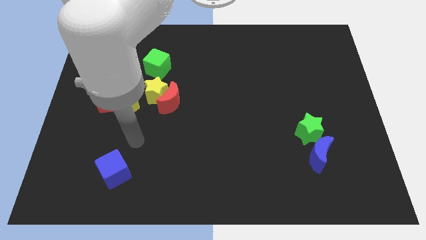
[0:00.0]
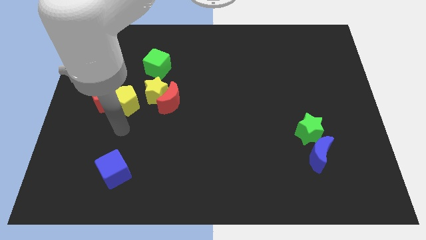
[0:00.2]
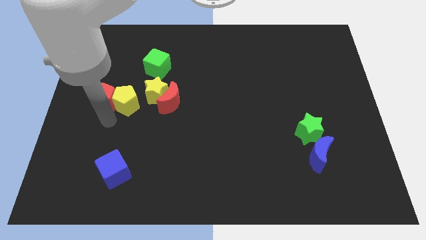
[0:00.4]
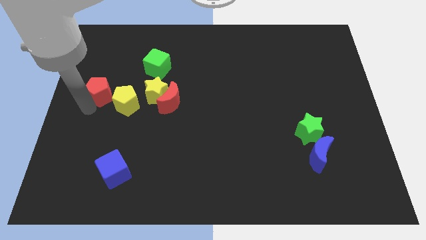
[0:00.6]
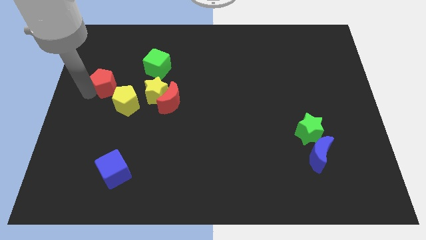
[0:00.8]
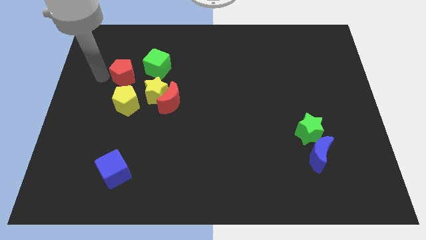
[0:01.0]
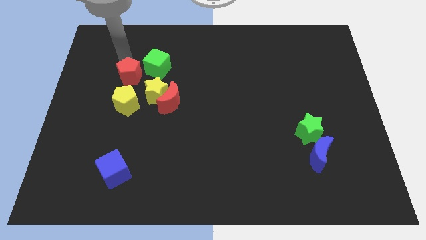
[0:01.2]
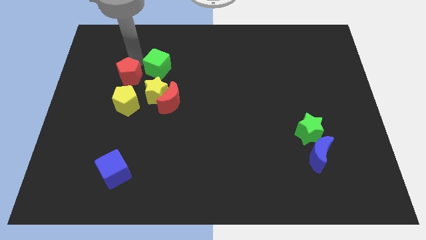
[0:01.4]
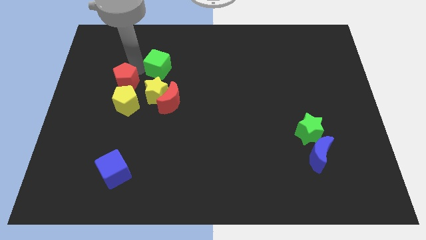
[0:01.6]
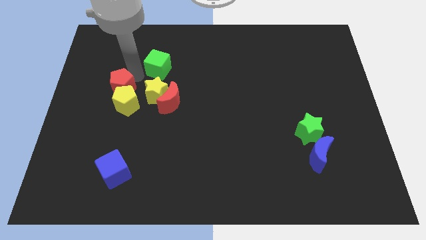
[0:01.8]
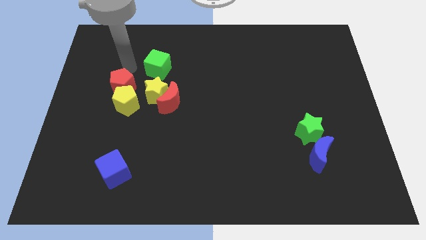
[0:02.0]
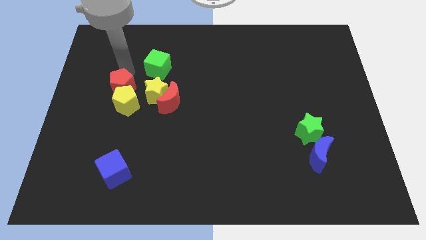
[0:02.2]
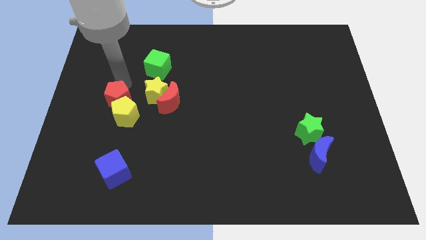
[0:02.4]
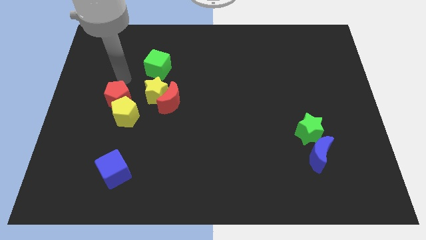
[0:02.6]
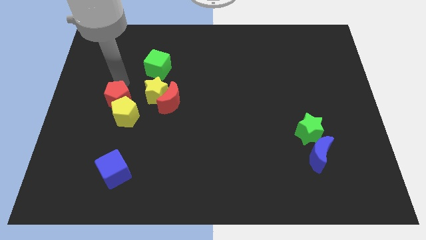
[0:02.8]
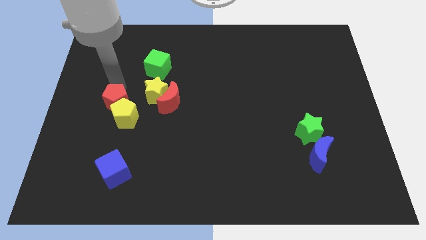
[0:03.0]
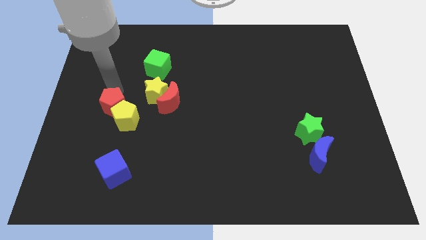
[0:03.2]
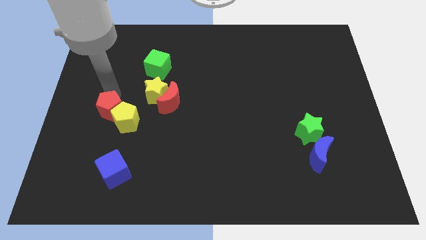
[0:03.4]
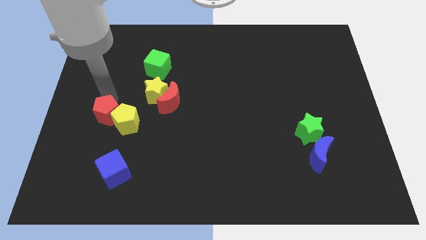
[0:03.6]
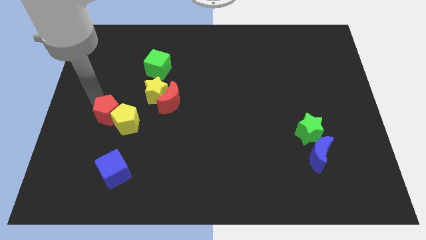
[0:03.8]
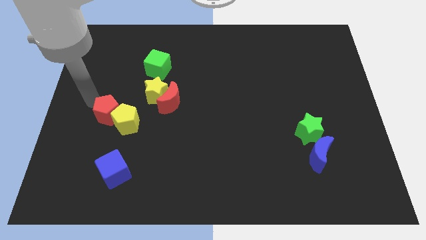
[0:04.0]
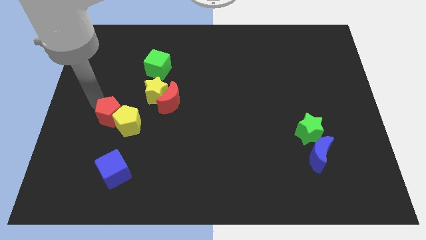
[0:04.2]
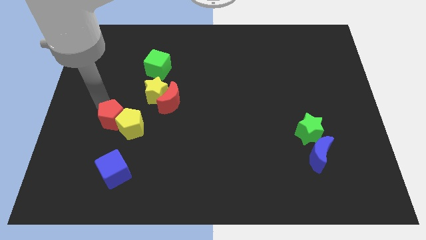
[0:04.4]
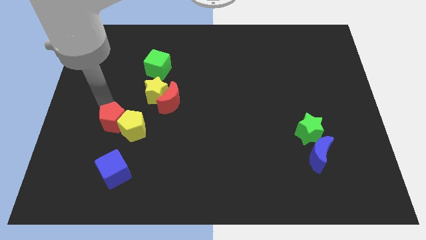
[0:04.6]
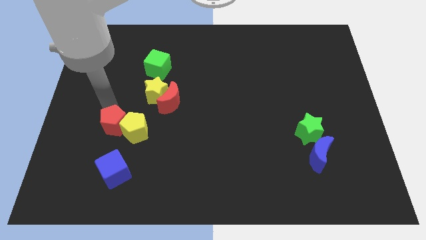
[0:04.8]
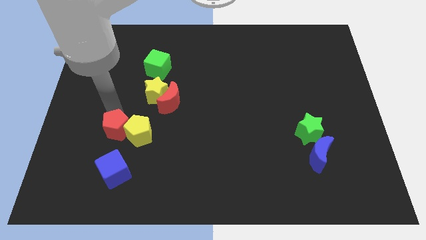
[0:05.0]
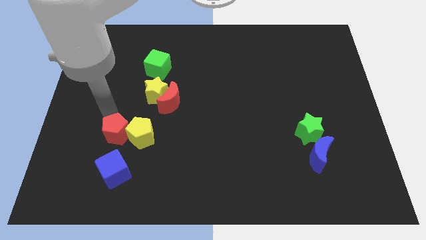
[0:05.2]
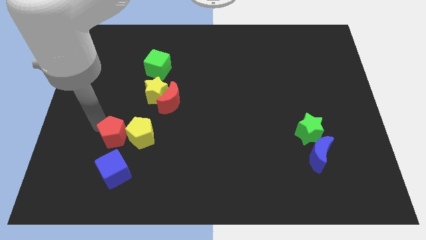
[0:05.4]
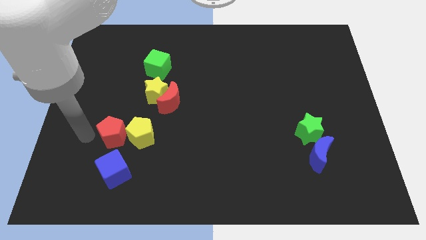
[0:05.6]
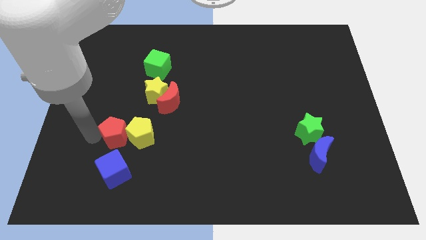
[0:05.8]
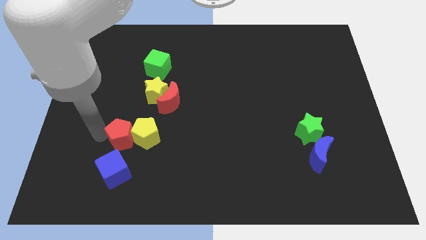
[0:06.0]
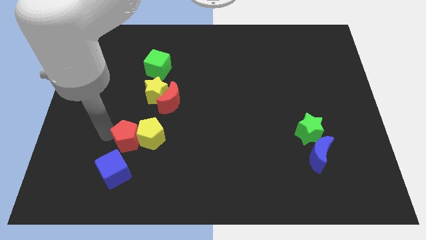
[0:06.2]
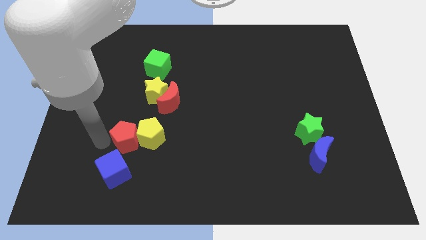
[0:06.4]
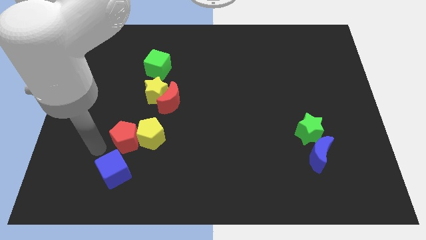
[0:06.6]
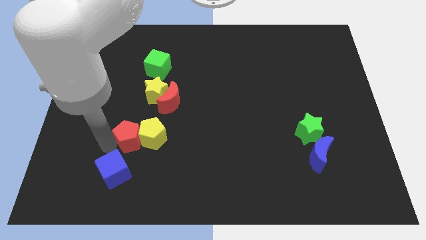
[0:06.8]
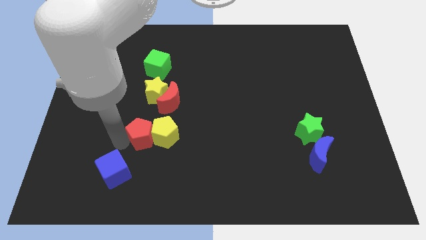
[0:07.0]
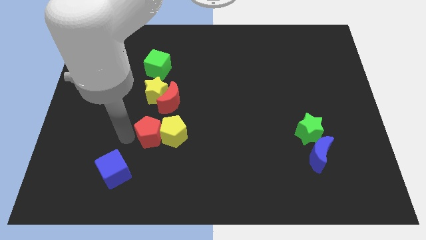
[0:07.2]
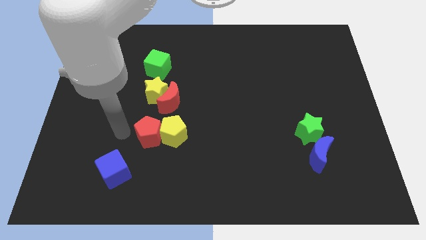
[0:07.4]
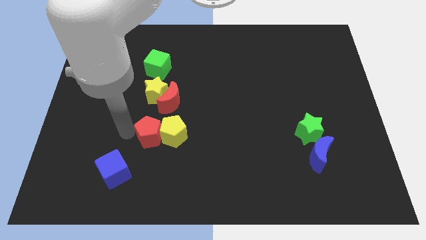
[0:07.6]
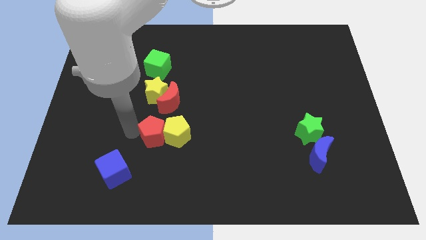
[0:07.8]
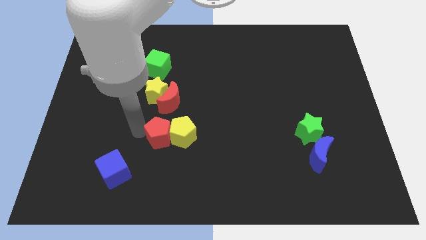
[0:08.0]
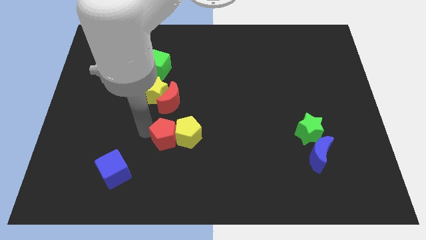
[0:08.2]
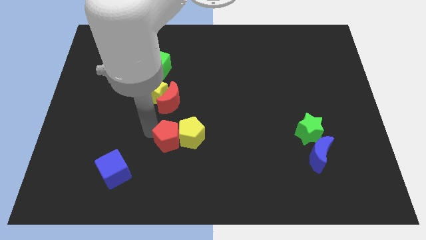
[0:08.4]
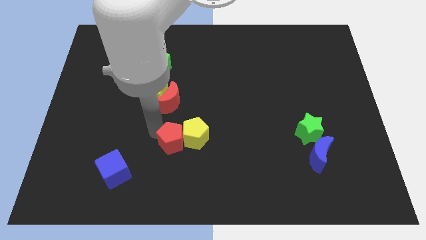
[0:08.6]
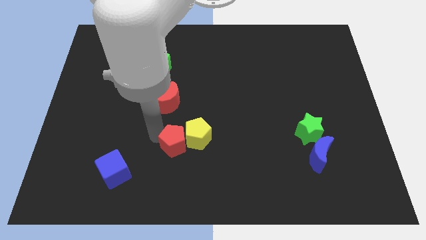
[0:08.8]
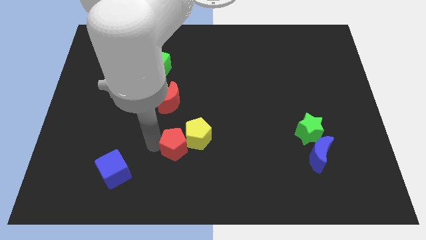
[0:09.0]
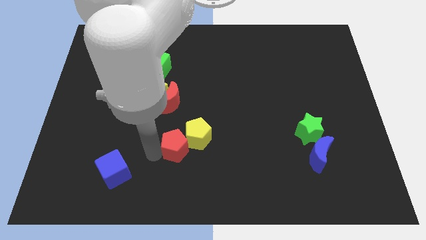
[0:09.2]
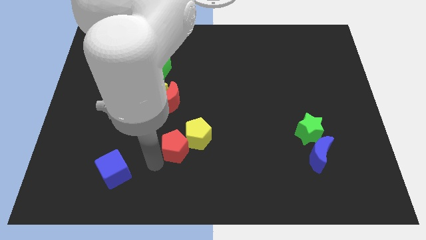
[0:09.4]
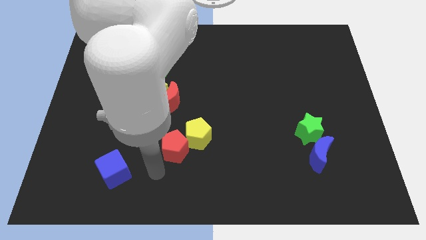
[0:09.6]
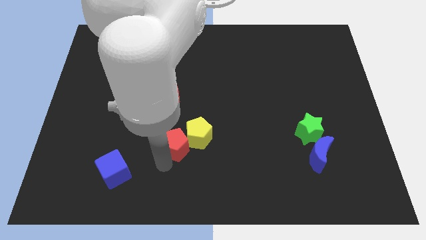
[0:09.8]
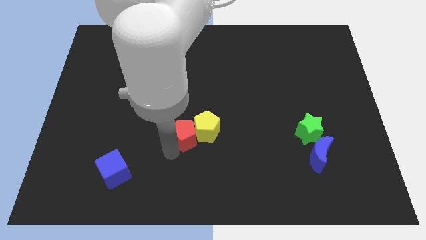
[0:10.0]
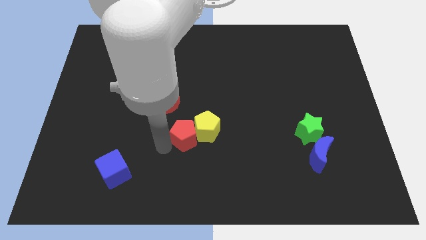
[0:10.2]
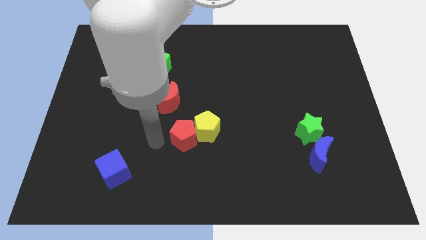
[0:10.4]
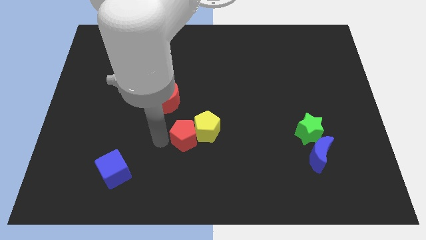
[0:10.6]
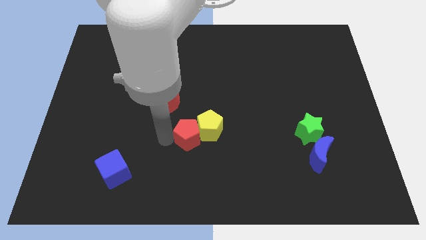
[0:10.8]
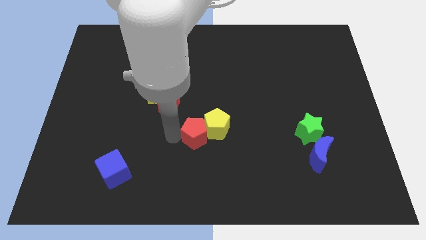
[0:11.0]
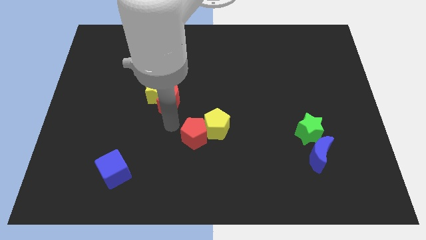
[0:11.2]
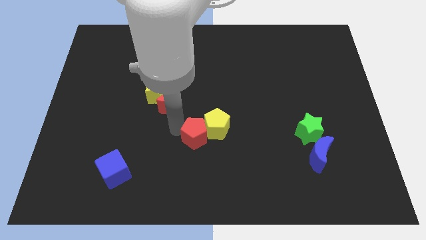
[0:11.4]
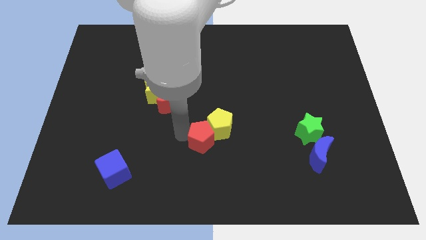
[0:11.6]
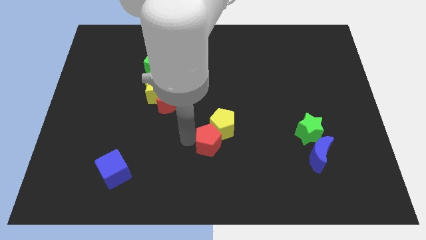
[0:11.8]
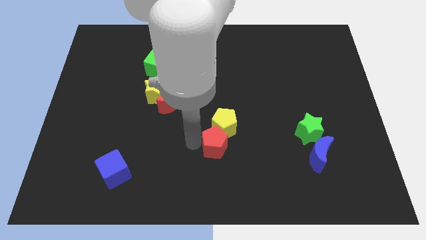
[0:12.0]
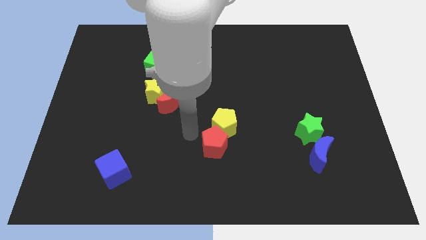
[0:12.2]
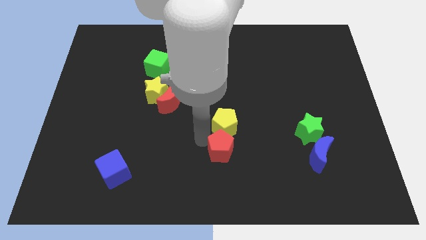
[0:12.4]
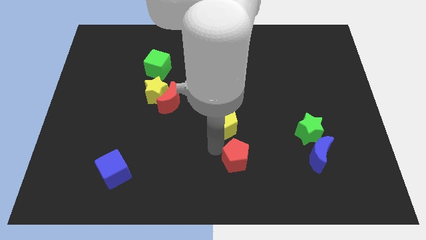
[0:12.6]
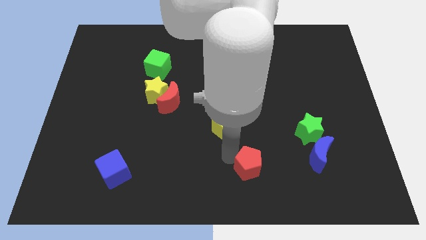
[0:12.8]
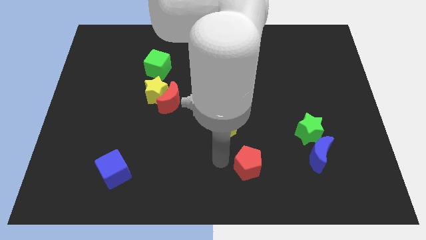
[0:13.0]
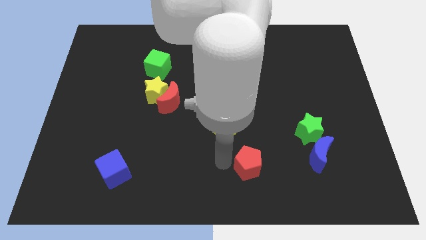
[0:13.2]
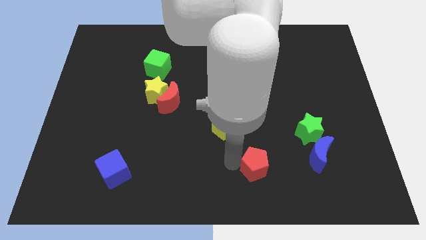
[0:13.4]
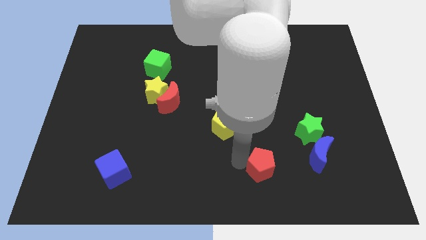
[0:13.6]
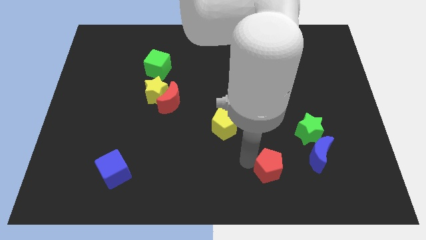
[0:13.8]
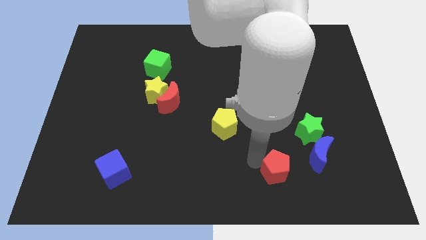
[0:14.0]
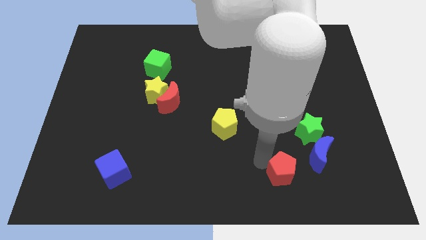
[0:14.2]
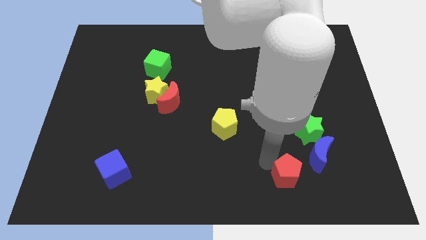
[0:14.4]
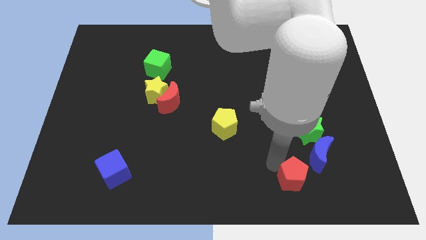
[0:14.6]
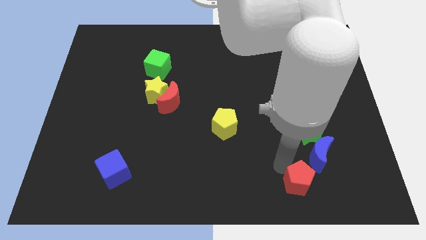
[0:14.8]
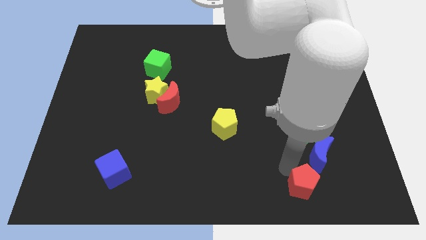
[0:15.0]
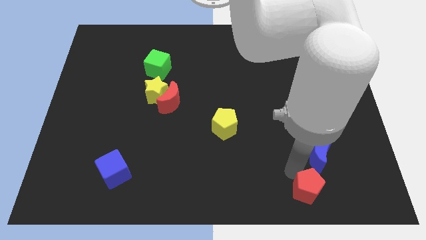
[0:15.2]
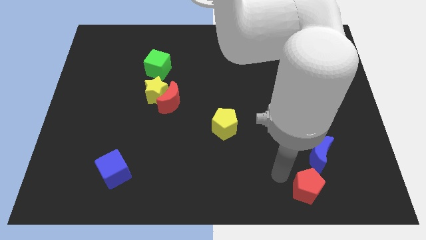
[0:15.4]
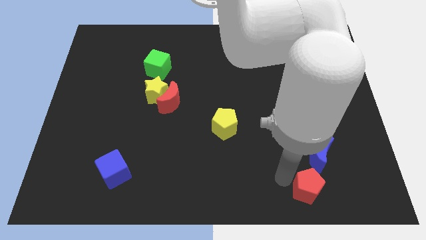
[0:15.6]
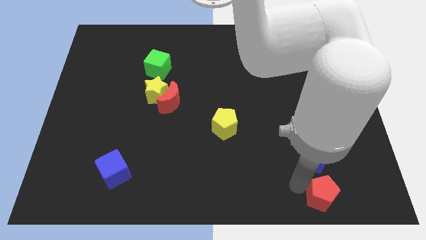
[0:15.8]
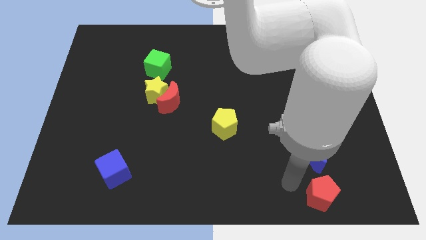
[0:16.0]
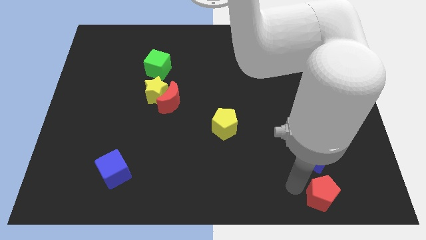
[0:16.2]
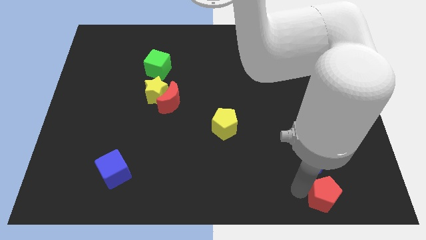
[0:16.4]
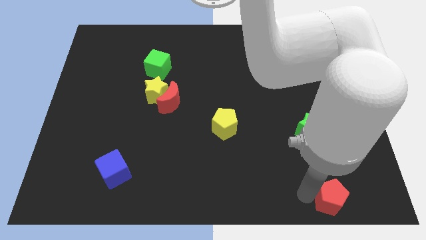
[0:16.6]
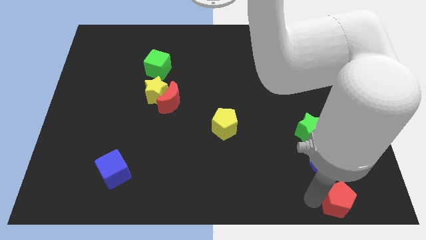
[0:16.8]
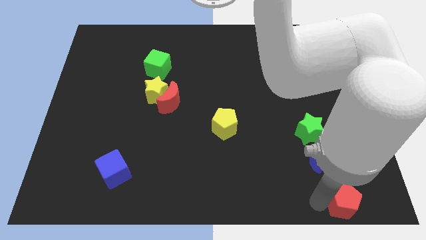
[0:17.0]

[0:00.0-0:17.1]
push the red pentagon to the lower right corner
